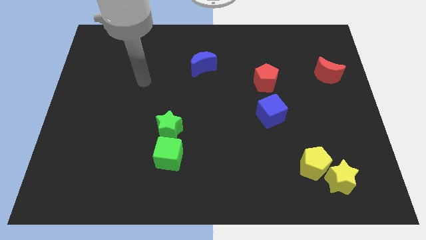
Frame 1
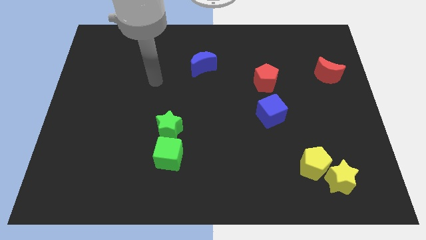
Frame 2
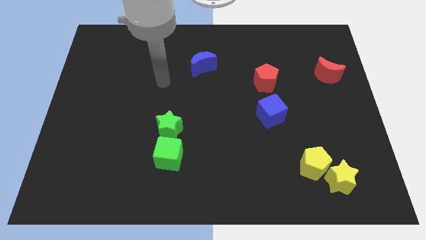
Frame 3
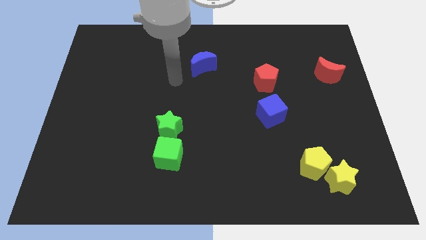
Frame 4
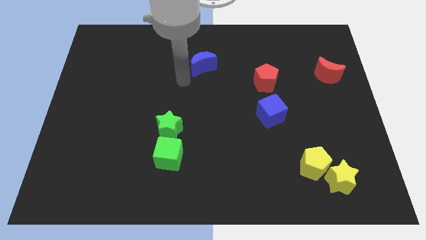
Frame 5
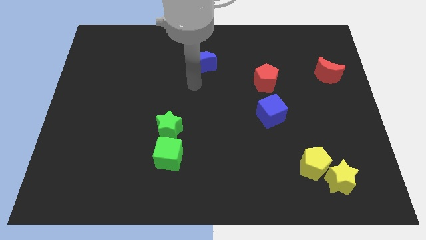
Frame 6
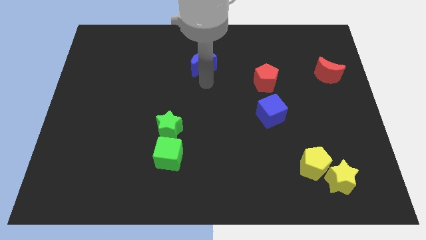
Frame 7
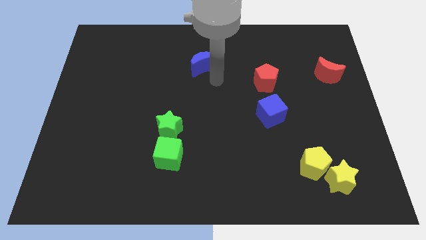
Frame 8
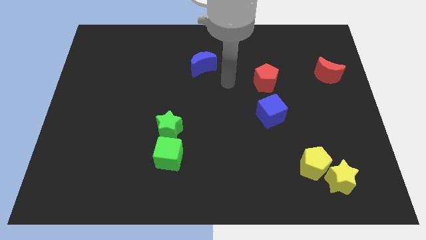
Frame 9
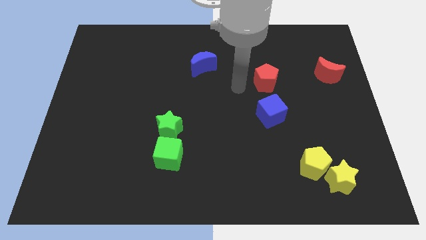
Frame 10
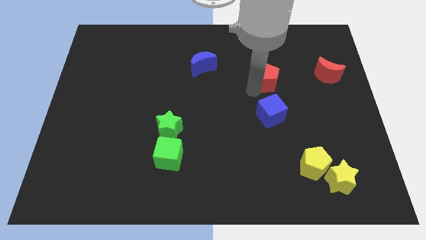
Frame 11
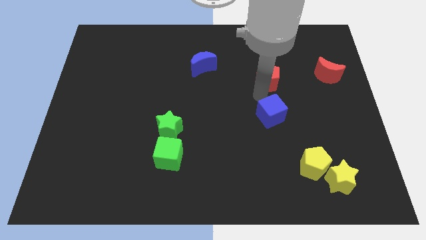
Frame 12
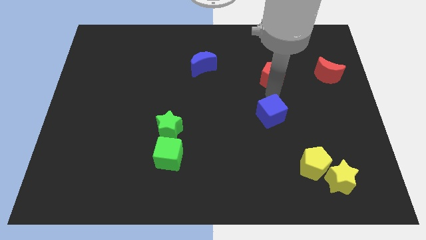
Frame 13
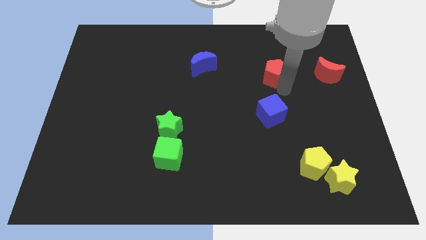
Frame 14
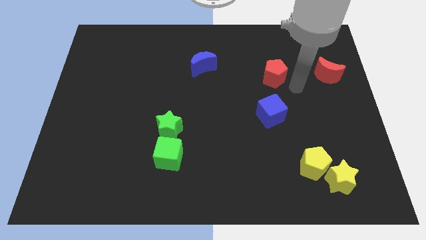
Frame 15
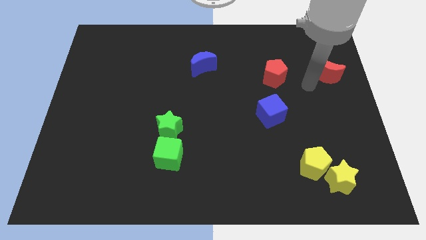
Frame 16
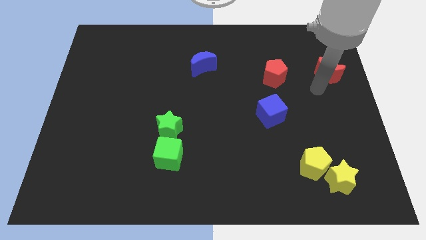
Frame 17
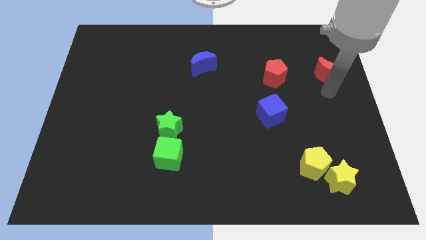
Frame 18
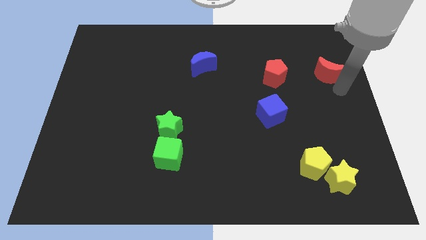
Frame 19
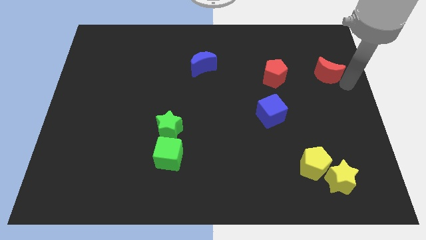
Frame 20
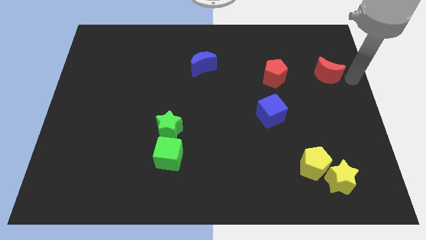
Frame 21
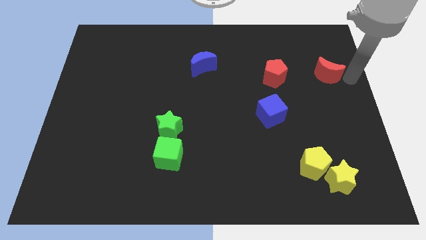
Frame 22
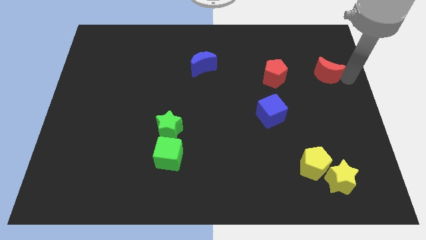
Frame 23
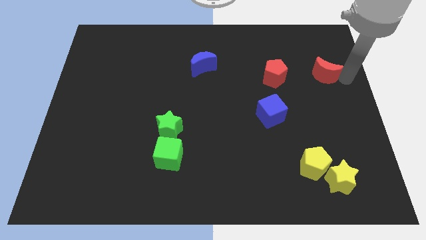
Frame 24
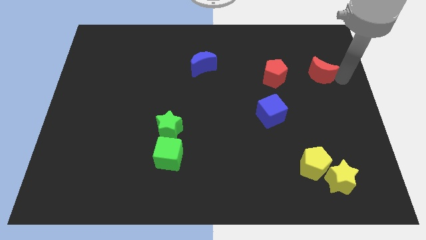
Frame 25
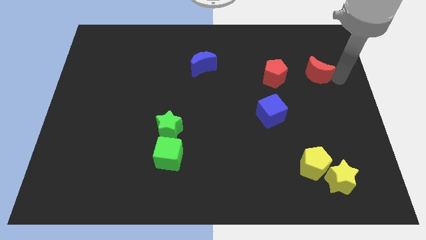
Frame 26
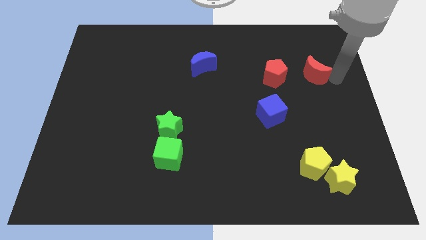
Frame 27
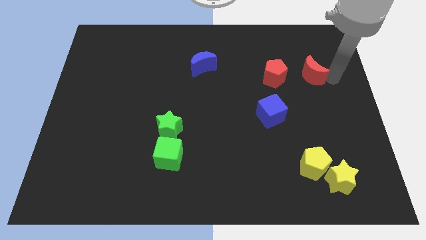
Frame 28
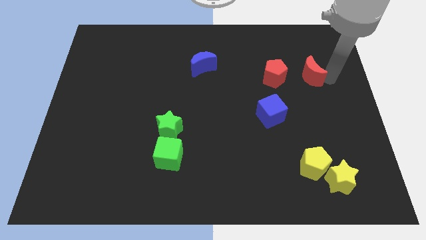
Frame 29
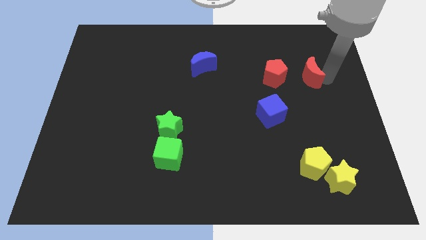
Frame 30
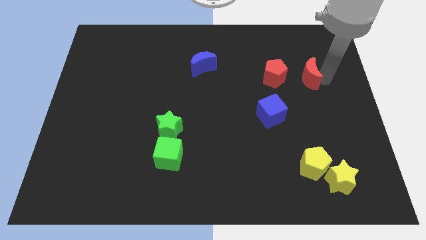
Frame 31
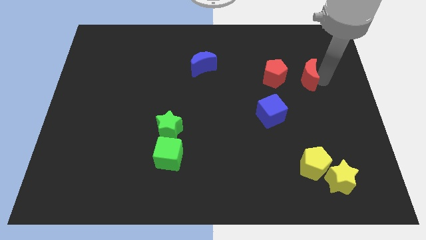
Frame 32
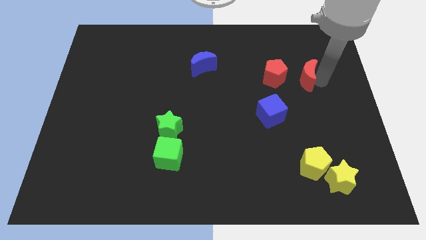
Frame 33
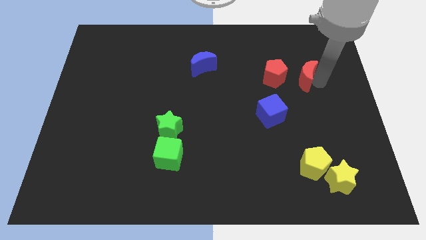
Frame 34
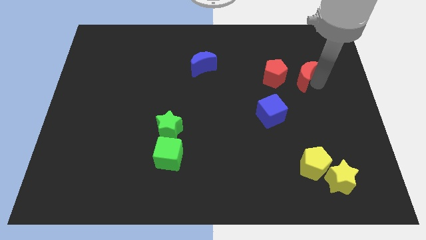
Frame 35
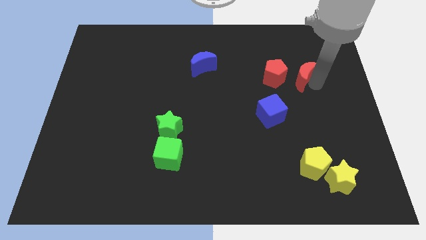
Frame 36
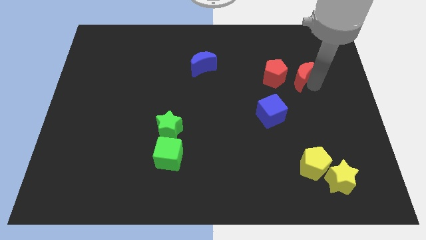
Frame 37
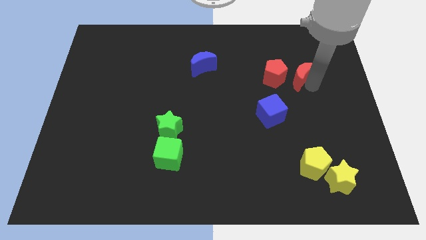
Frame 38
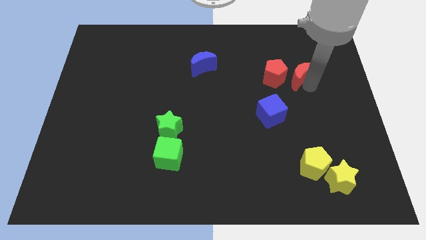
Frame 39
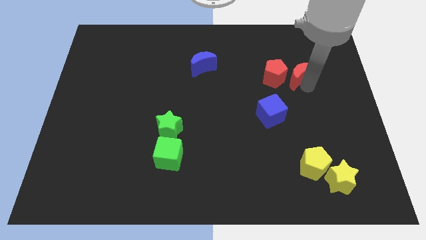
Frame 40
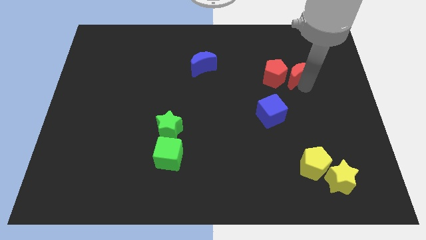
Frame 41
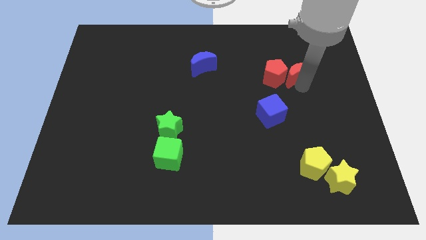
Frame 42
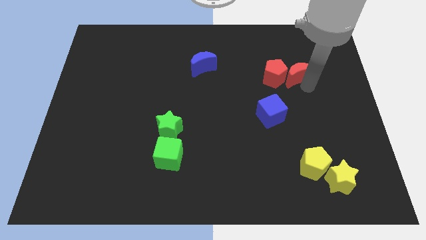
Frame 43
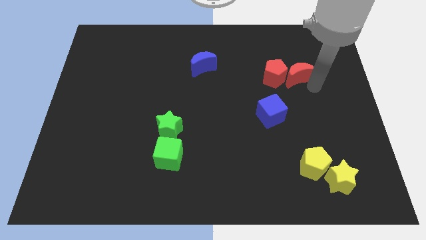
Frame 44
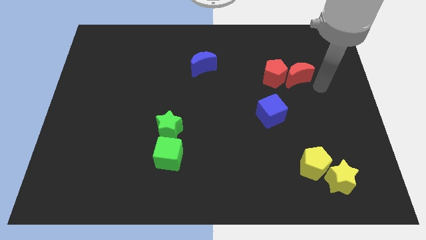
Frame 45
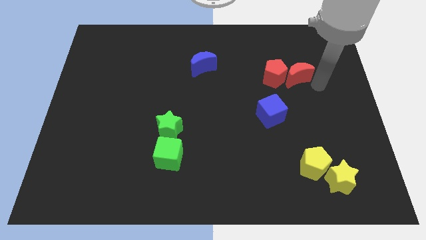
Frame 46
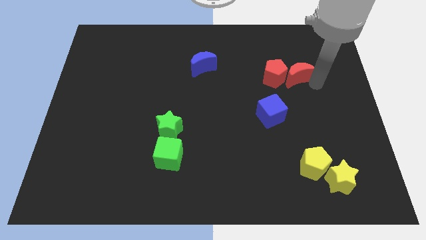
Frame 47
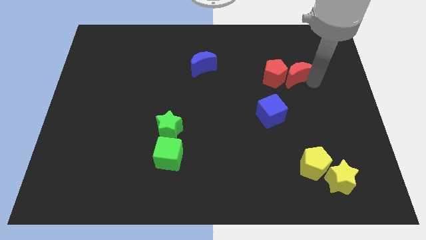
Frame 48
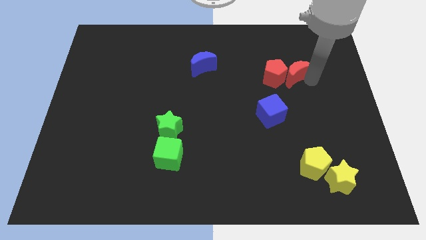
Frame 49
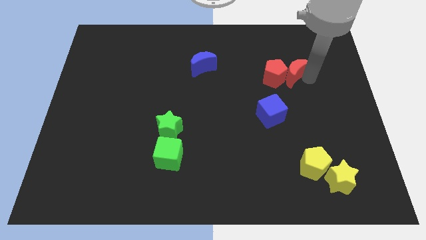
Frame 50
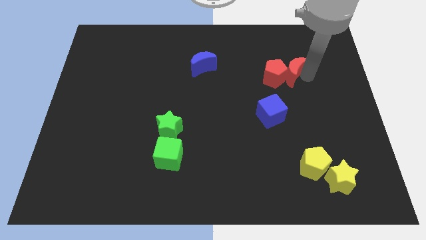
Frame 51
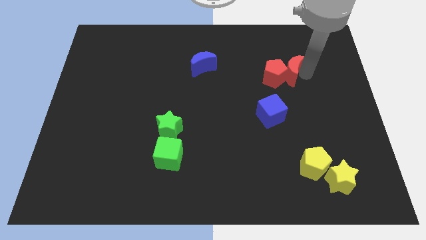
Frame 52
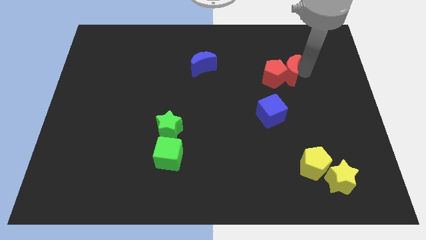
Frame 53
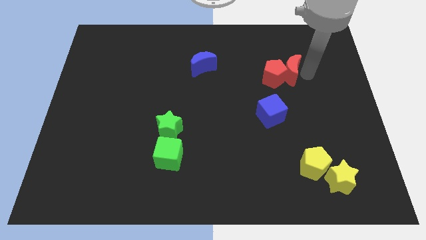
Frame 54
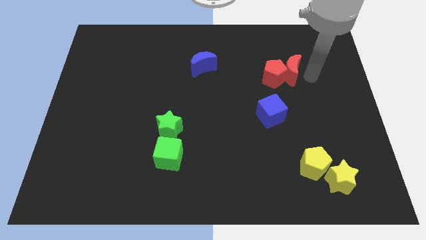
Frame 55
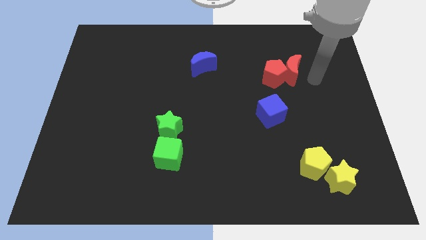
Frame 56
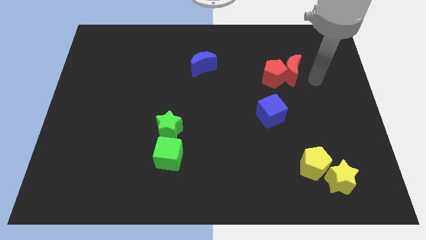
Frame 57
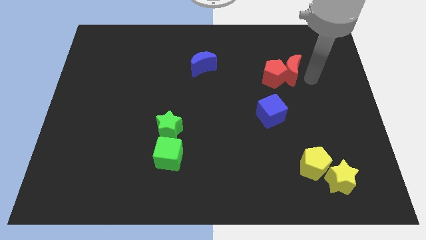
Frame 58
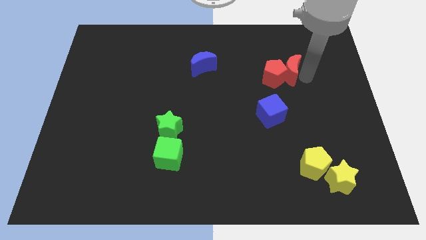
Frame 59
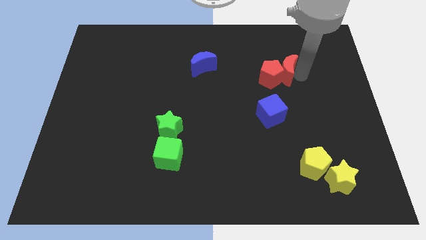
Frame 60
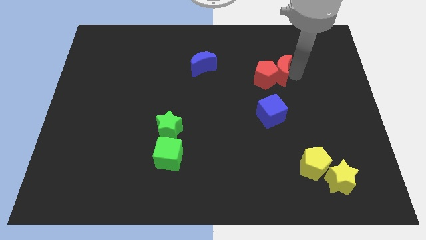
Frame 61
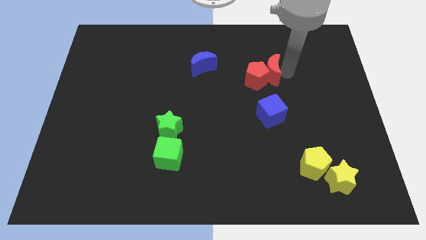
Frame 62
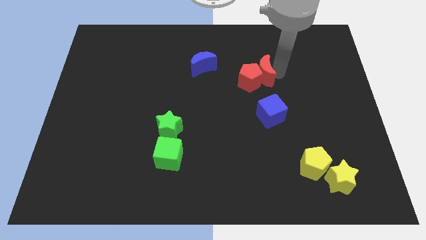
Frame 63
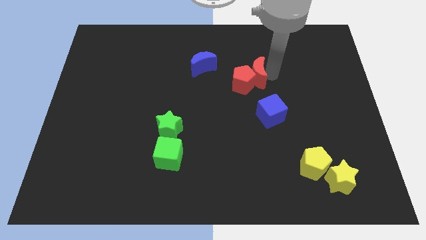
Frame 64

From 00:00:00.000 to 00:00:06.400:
push the red moon just right of the blue moon

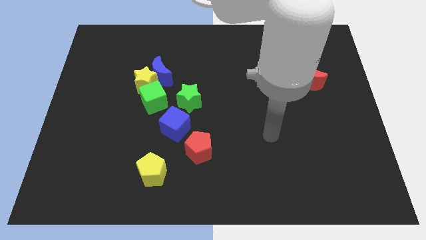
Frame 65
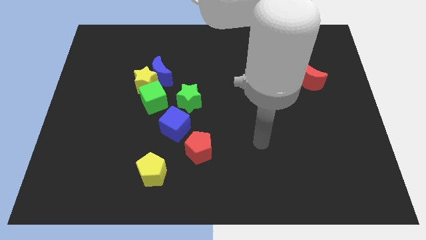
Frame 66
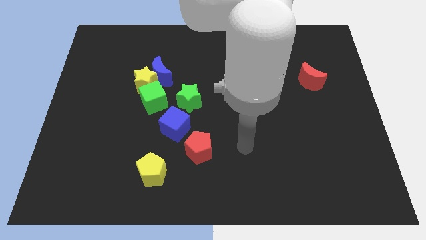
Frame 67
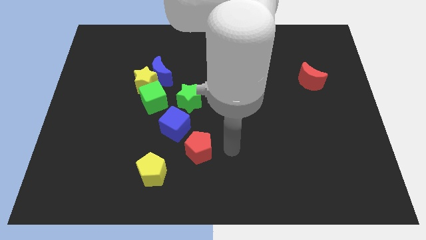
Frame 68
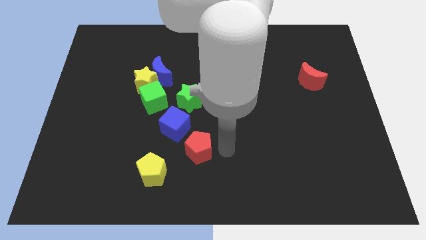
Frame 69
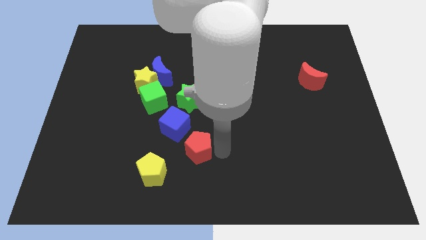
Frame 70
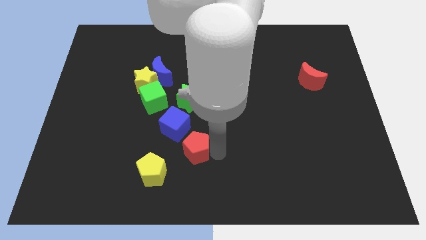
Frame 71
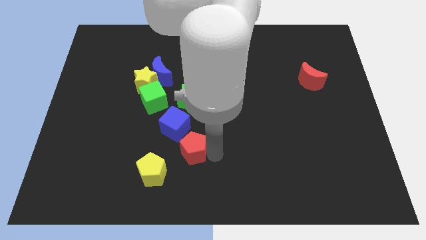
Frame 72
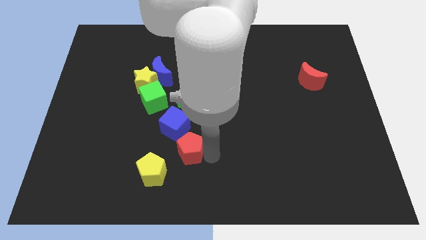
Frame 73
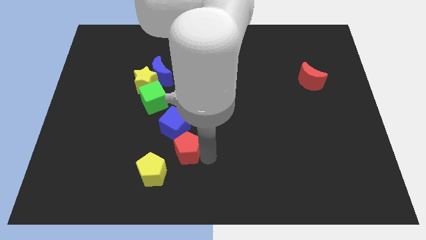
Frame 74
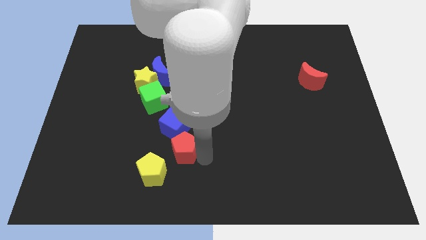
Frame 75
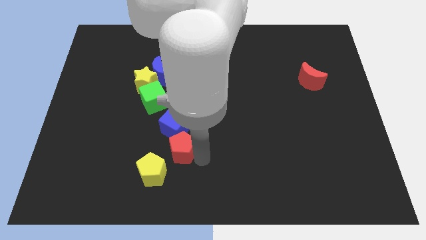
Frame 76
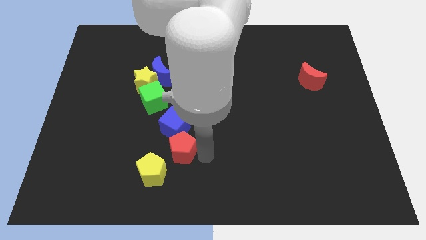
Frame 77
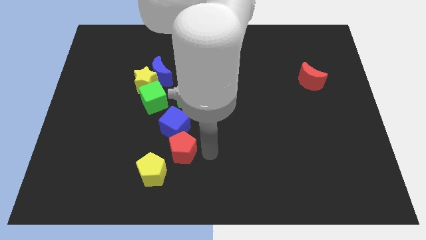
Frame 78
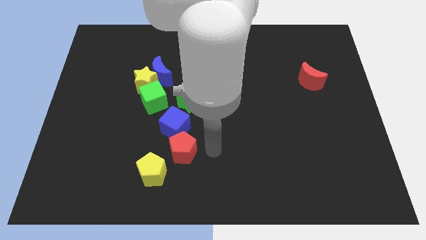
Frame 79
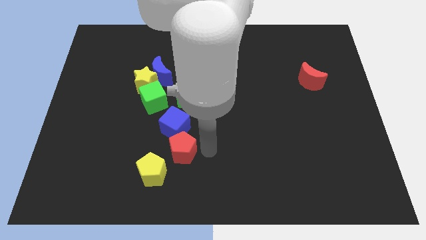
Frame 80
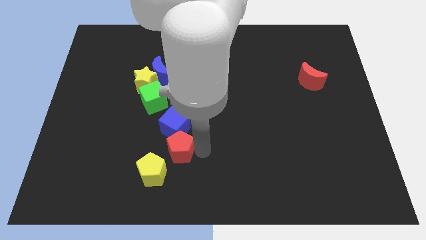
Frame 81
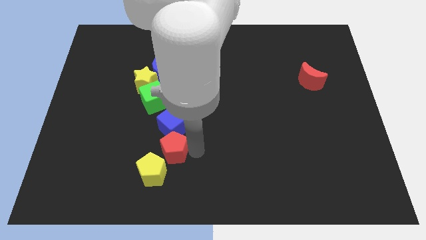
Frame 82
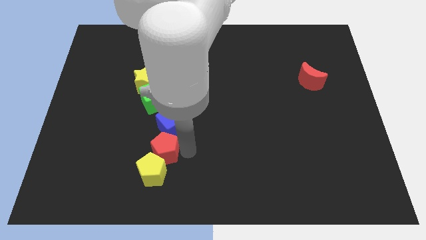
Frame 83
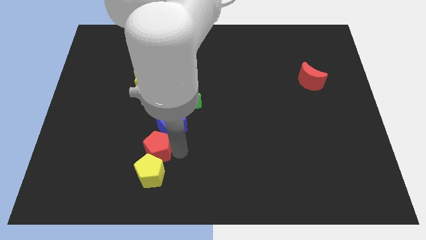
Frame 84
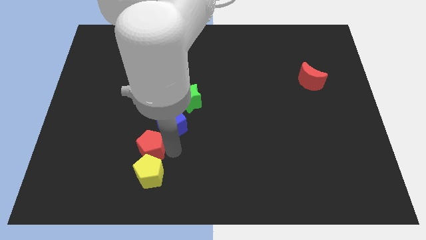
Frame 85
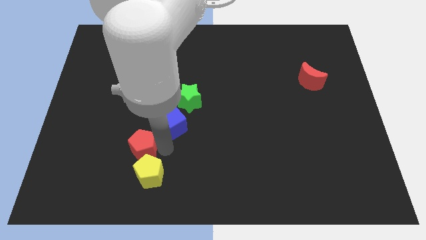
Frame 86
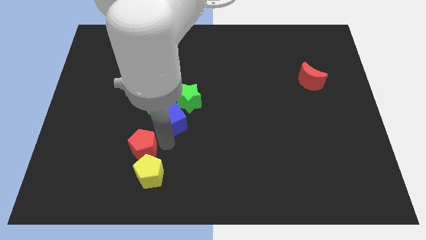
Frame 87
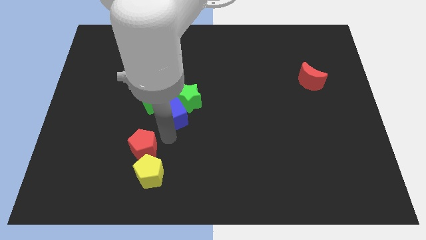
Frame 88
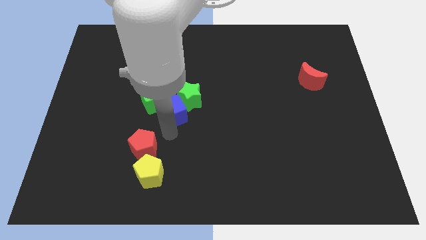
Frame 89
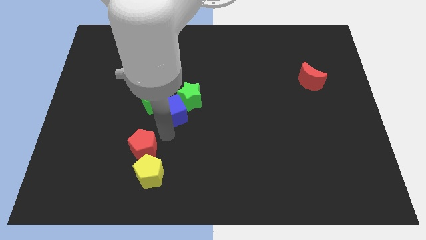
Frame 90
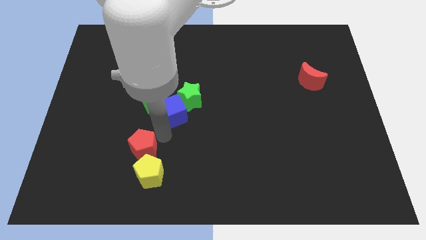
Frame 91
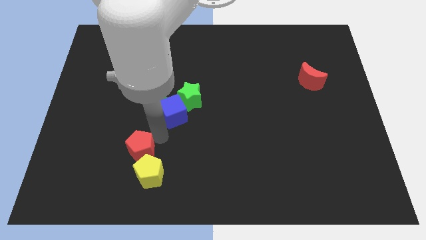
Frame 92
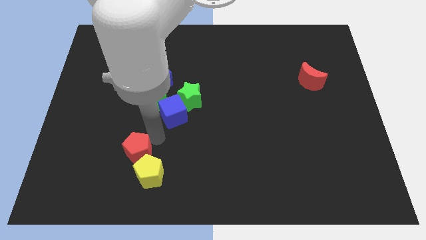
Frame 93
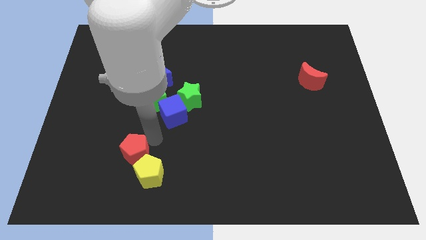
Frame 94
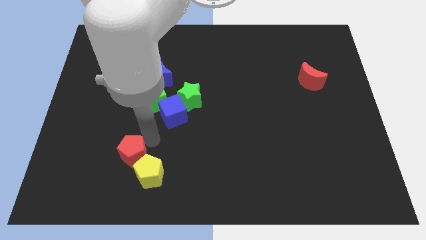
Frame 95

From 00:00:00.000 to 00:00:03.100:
put the red pentagon just left of the yellow pentagon
